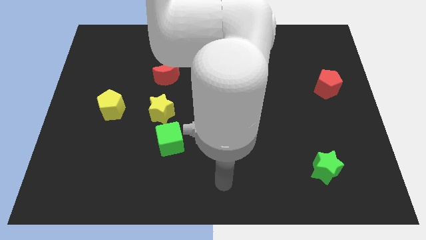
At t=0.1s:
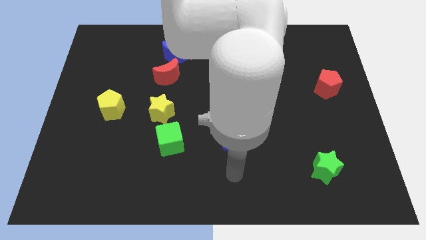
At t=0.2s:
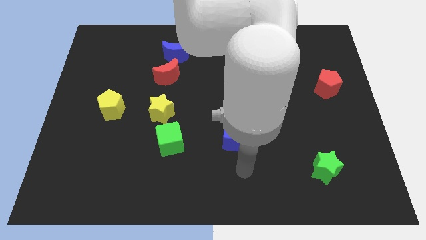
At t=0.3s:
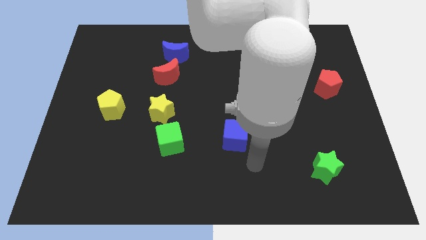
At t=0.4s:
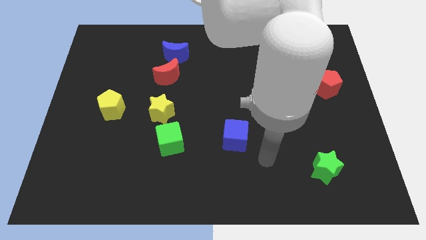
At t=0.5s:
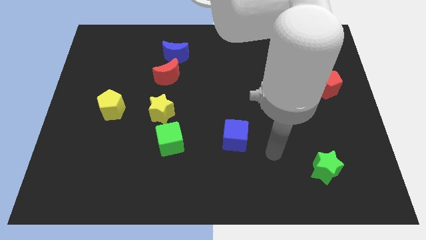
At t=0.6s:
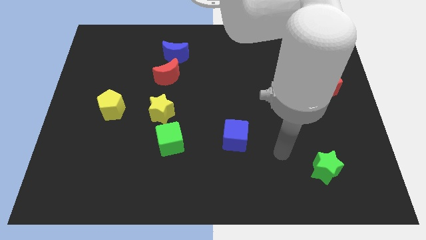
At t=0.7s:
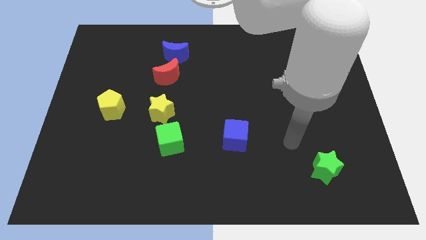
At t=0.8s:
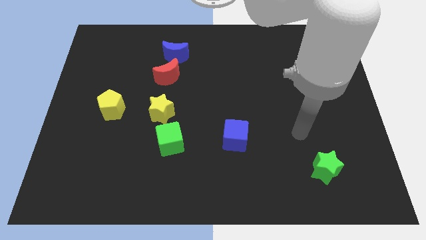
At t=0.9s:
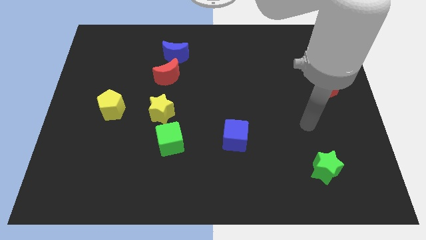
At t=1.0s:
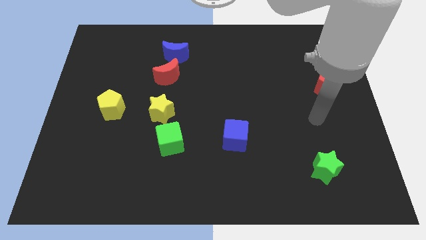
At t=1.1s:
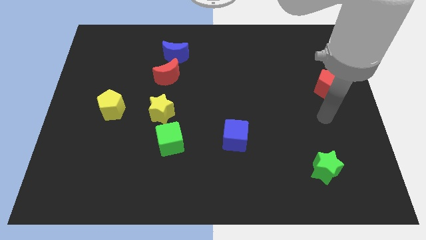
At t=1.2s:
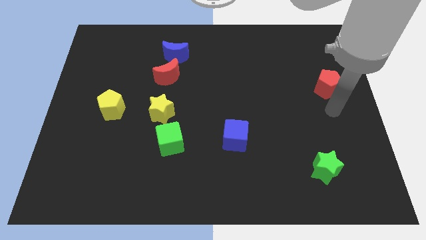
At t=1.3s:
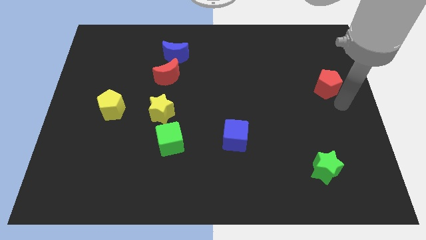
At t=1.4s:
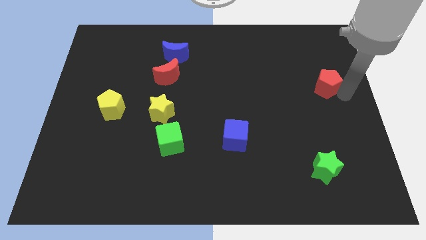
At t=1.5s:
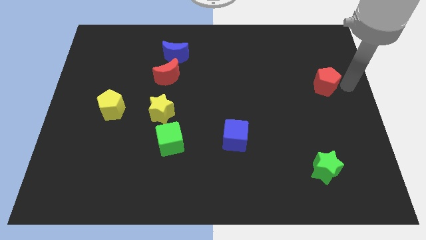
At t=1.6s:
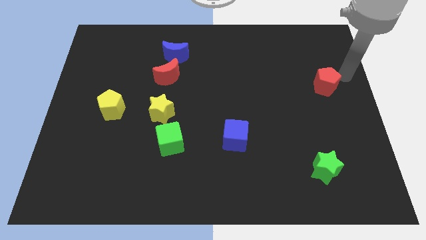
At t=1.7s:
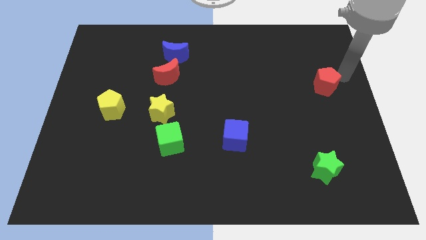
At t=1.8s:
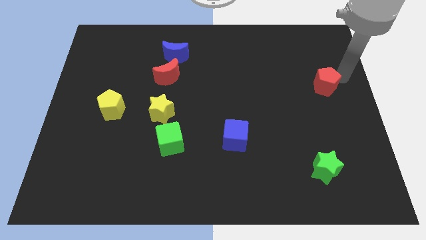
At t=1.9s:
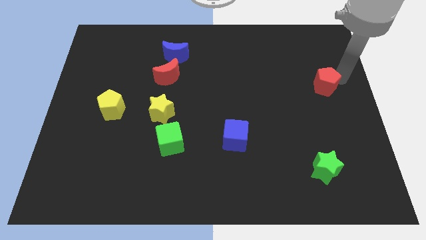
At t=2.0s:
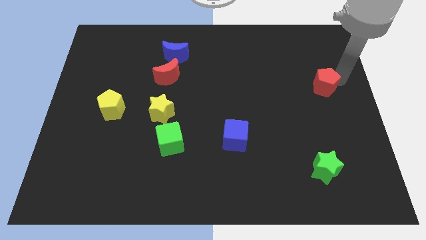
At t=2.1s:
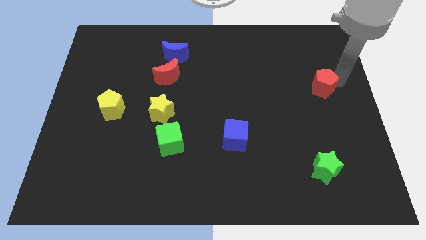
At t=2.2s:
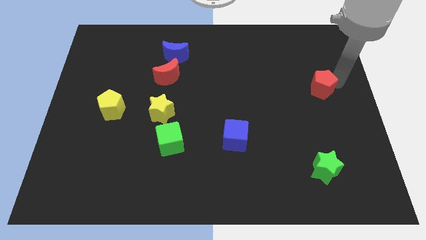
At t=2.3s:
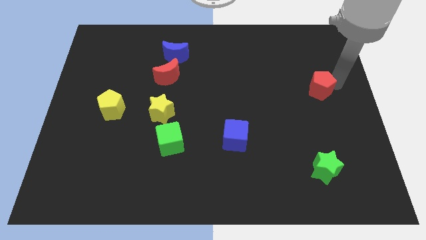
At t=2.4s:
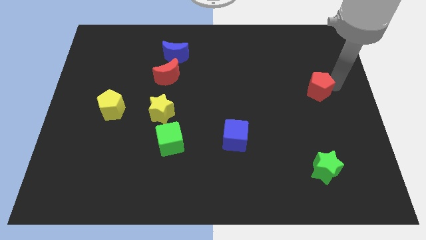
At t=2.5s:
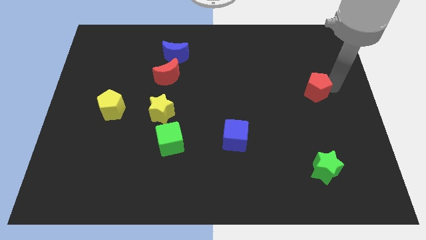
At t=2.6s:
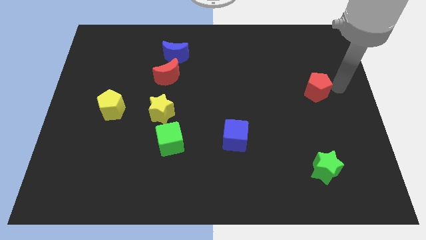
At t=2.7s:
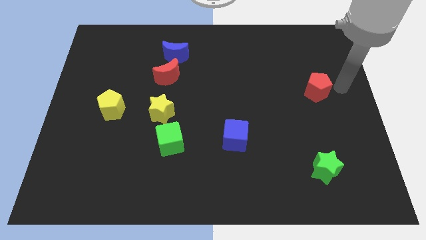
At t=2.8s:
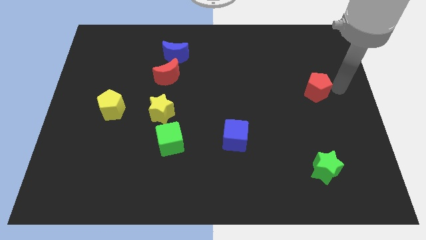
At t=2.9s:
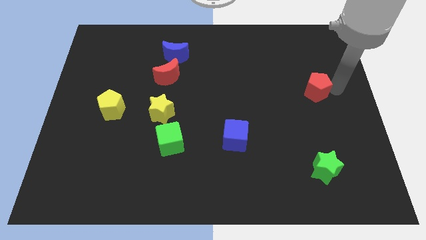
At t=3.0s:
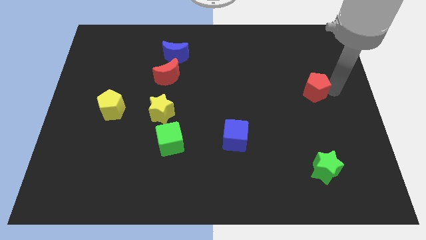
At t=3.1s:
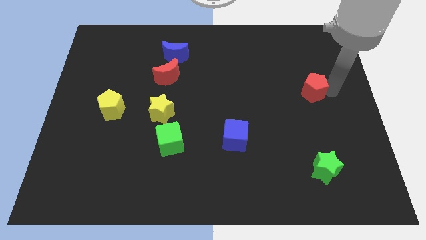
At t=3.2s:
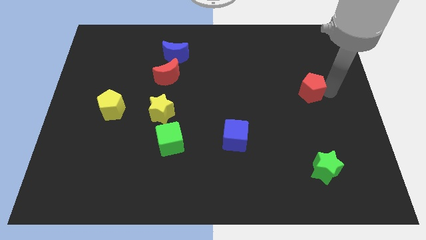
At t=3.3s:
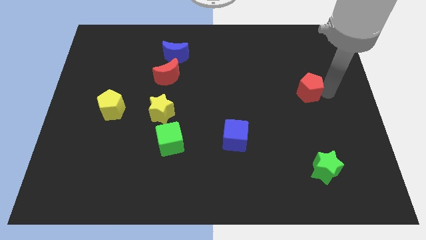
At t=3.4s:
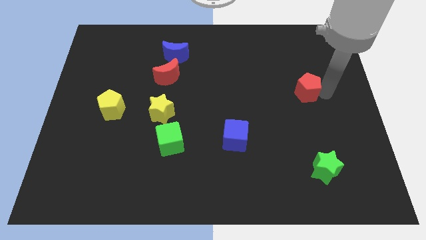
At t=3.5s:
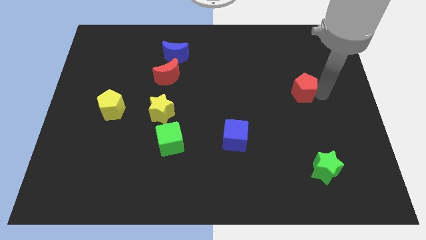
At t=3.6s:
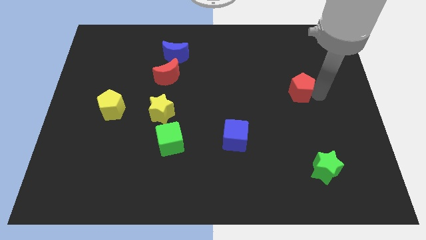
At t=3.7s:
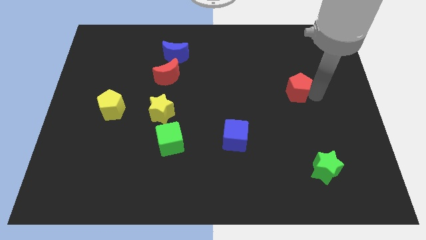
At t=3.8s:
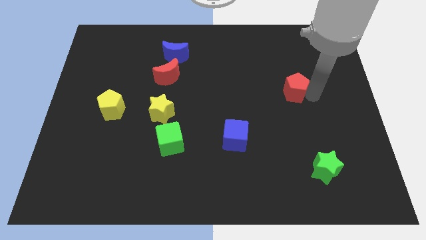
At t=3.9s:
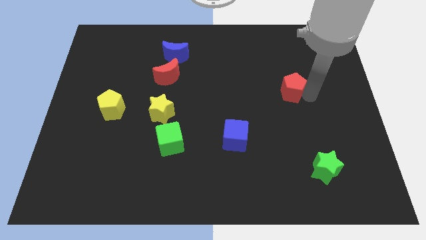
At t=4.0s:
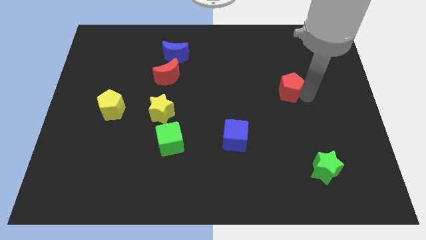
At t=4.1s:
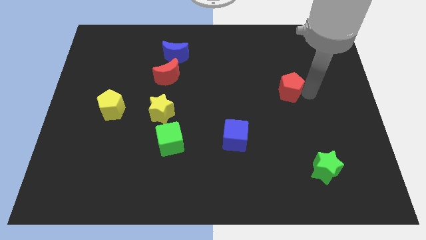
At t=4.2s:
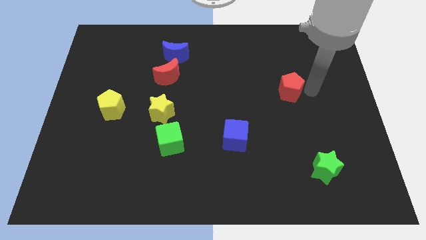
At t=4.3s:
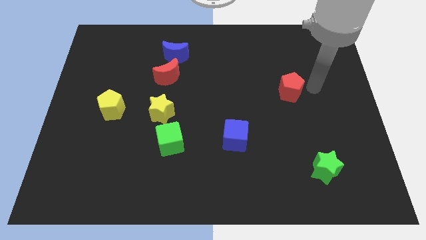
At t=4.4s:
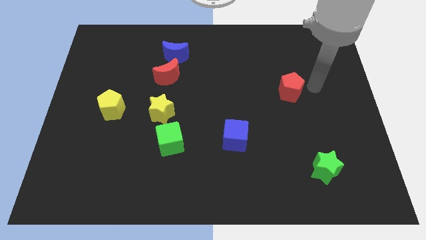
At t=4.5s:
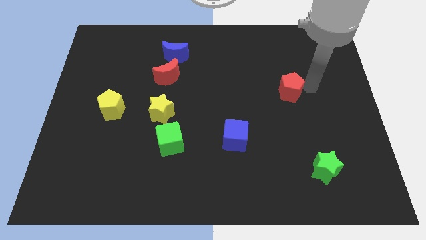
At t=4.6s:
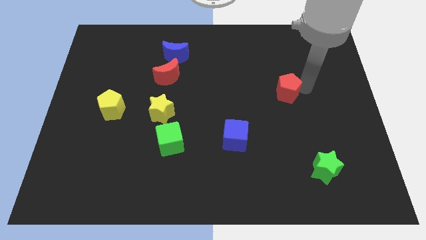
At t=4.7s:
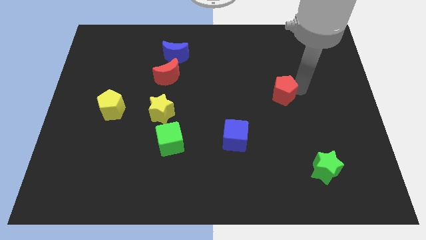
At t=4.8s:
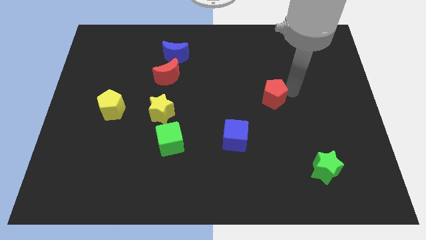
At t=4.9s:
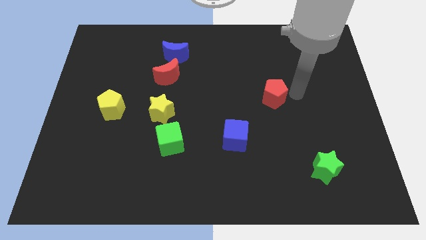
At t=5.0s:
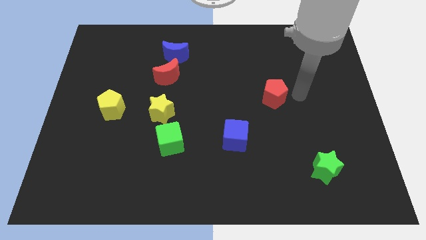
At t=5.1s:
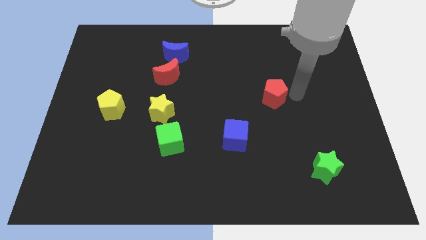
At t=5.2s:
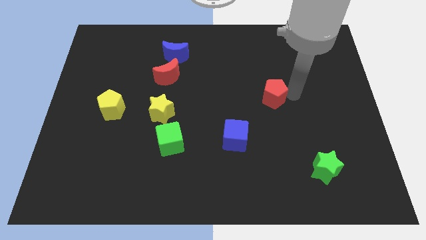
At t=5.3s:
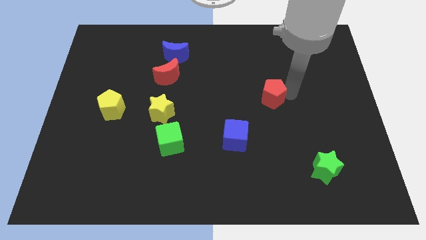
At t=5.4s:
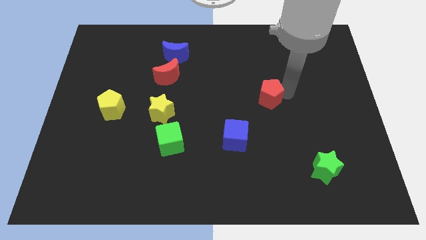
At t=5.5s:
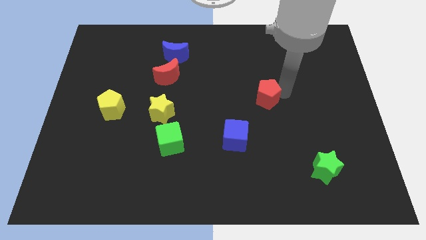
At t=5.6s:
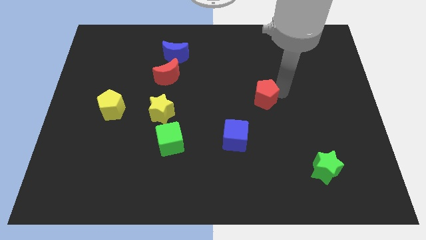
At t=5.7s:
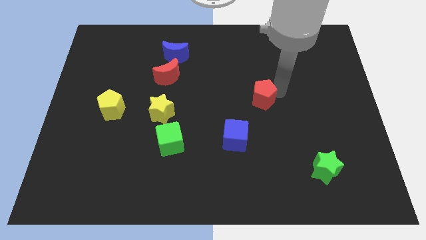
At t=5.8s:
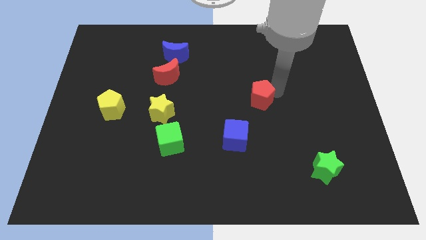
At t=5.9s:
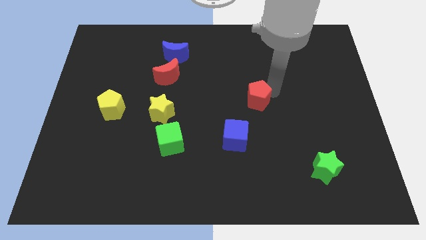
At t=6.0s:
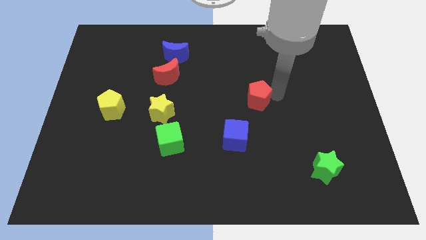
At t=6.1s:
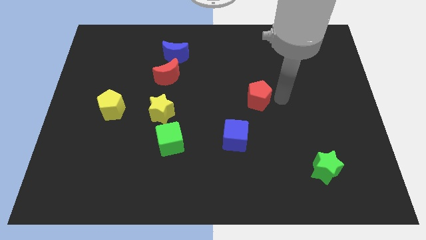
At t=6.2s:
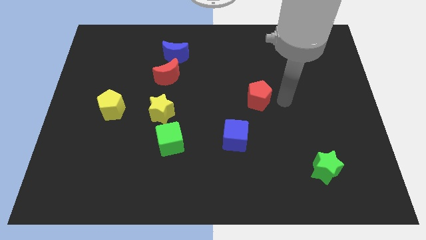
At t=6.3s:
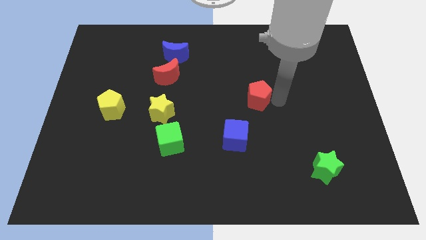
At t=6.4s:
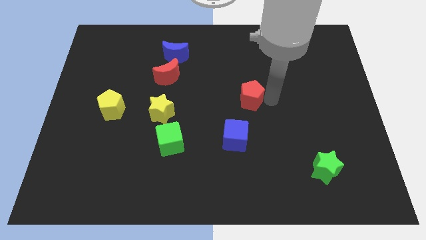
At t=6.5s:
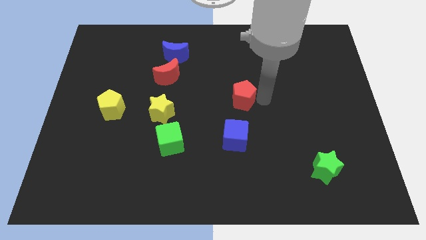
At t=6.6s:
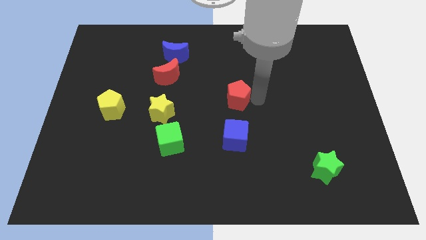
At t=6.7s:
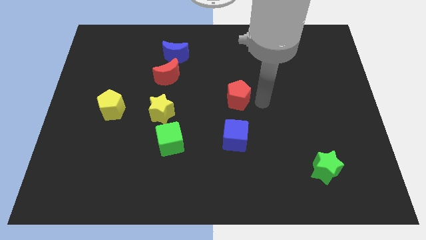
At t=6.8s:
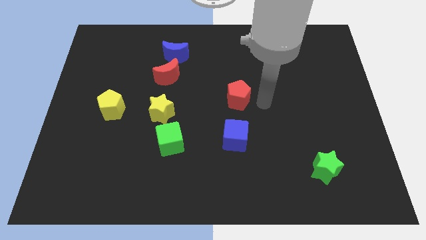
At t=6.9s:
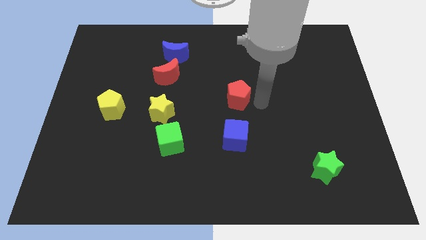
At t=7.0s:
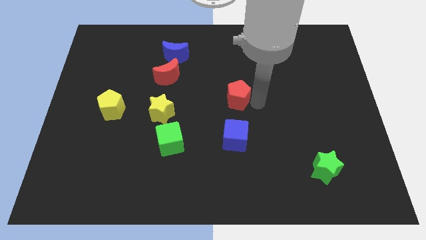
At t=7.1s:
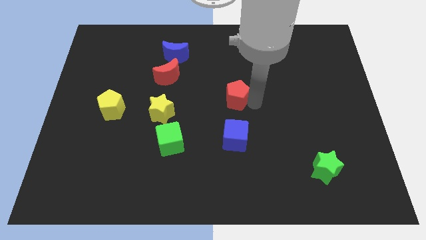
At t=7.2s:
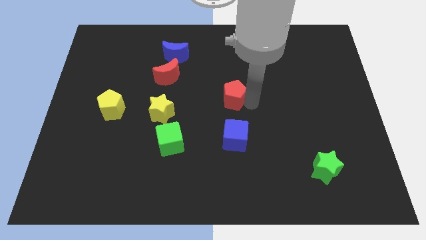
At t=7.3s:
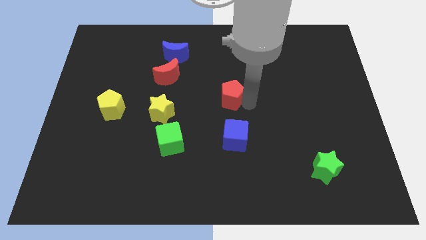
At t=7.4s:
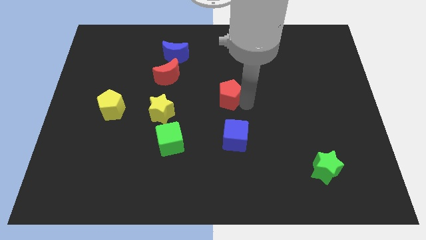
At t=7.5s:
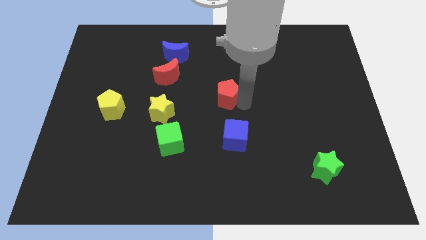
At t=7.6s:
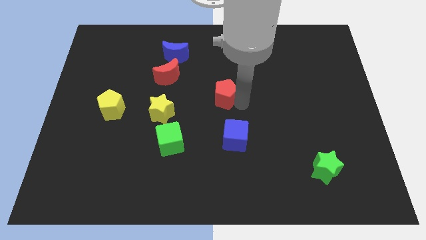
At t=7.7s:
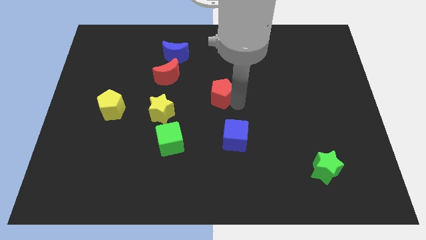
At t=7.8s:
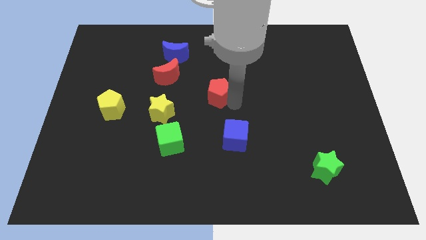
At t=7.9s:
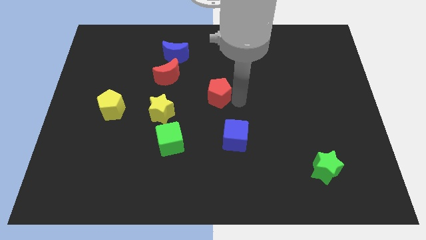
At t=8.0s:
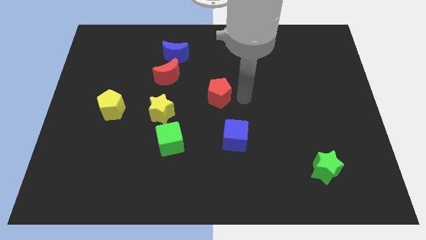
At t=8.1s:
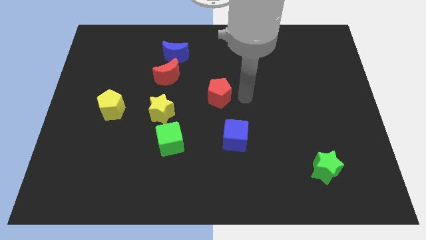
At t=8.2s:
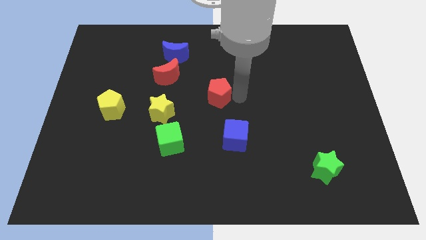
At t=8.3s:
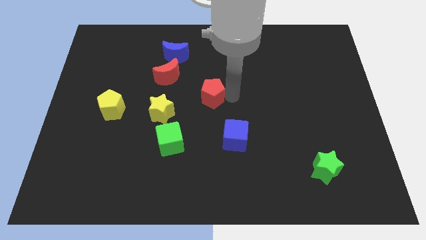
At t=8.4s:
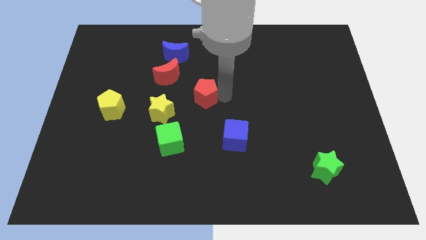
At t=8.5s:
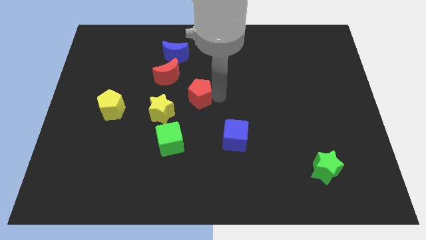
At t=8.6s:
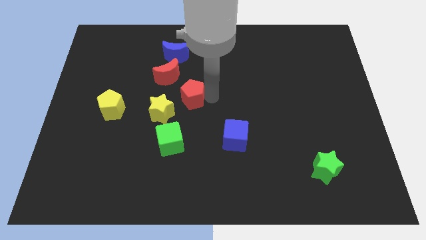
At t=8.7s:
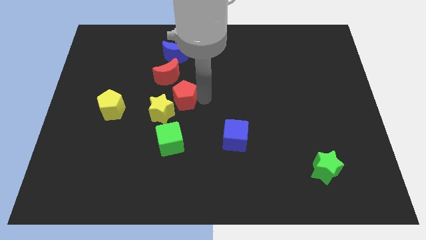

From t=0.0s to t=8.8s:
put the red pentagon to the bottom side of the blue moon
